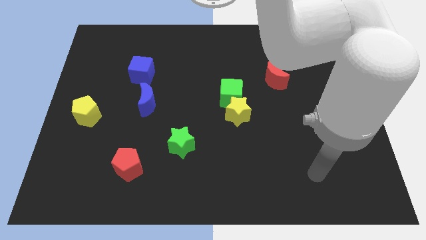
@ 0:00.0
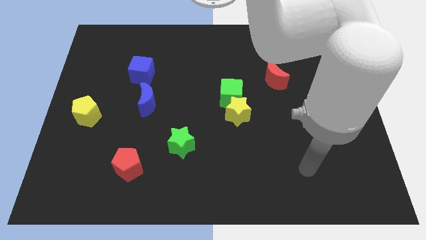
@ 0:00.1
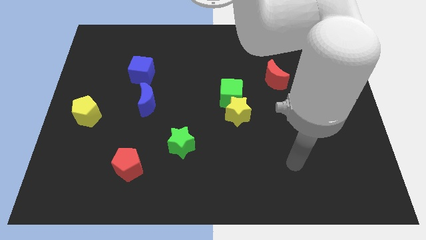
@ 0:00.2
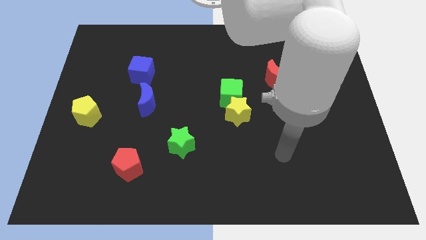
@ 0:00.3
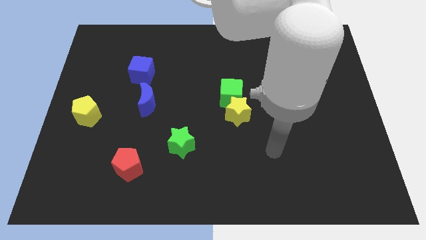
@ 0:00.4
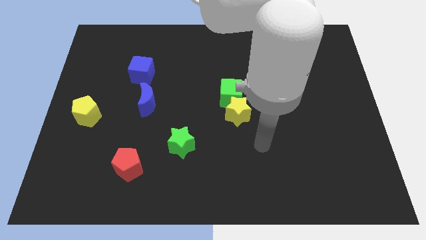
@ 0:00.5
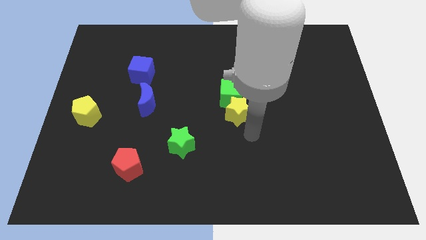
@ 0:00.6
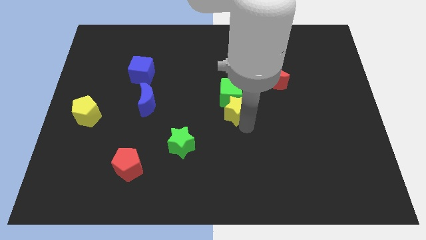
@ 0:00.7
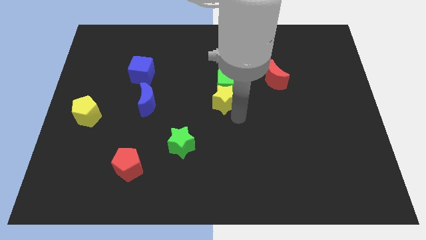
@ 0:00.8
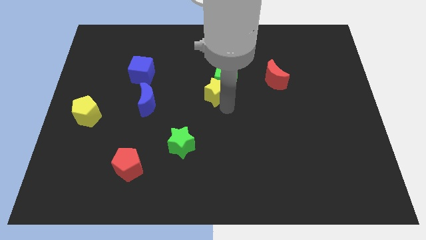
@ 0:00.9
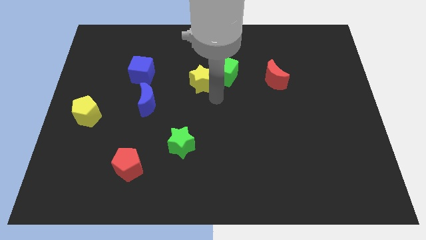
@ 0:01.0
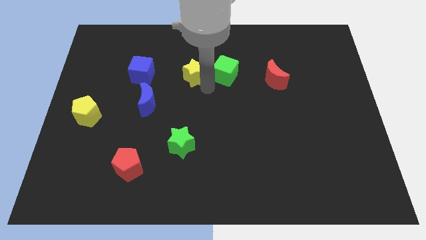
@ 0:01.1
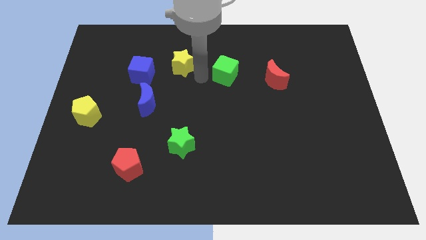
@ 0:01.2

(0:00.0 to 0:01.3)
pull the green cube apart from the yellow star

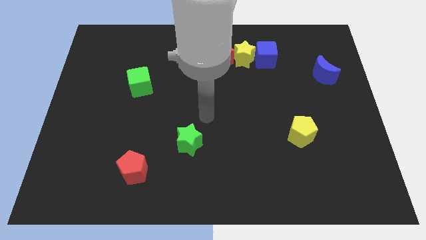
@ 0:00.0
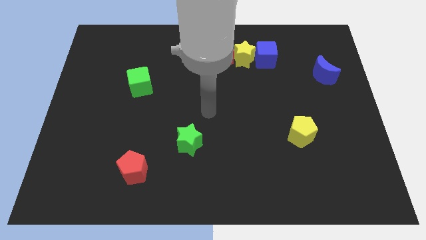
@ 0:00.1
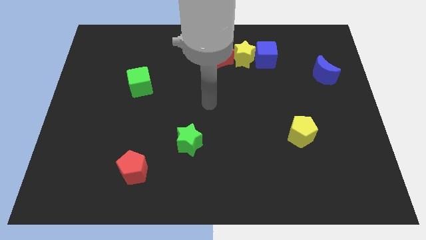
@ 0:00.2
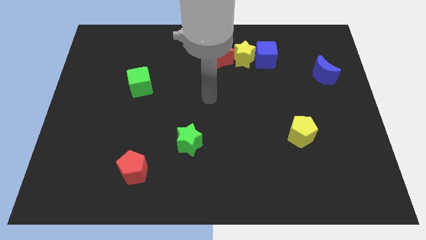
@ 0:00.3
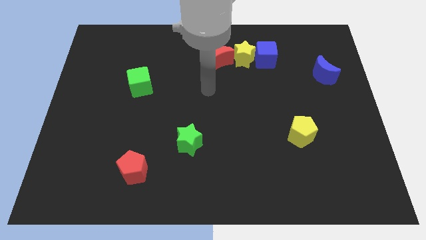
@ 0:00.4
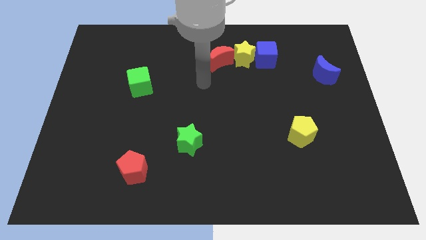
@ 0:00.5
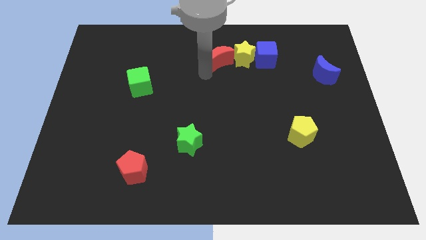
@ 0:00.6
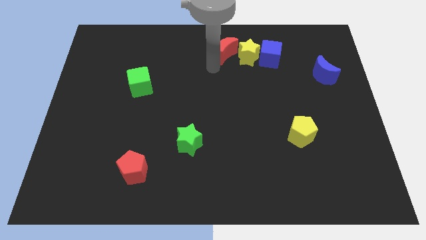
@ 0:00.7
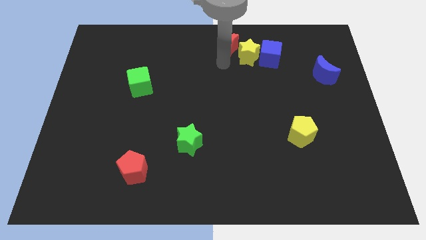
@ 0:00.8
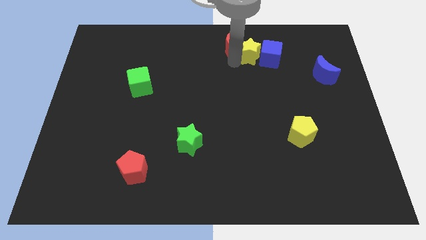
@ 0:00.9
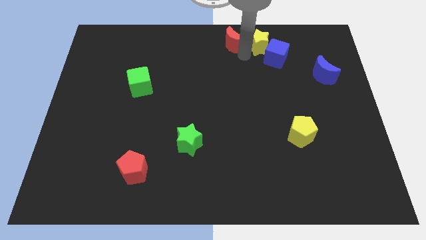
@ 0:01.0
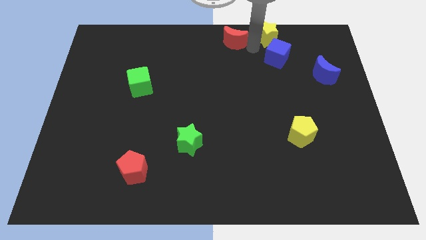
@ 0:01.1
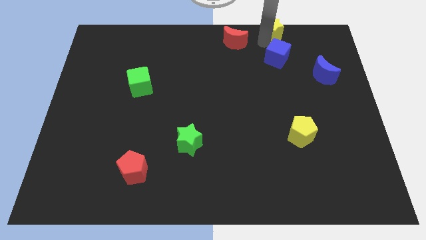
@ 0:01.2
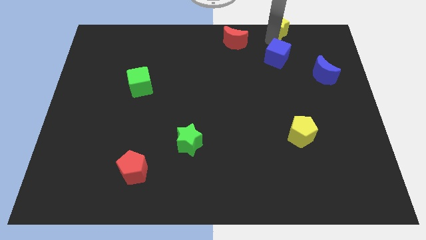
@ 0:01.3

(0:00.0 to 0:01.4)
separate the blue cube from the yellow star

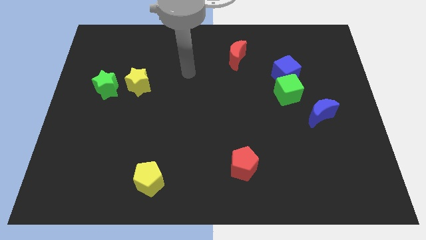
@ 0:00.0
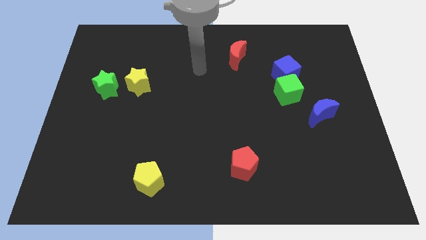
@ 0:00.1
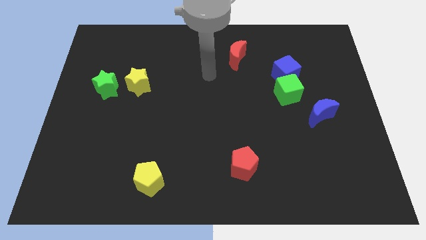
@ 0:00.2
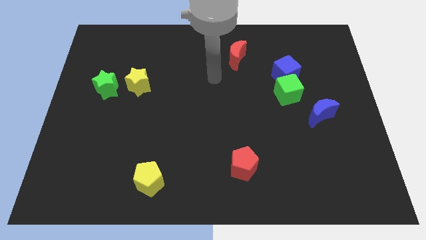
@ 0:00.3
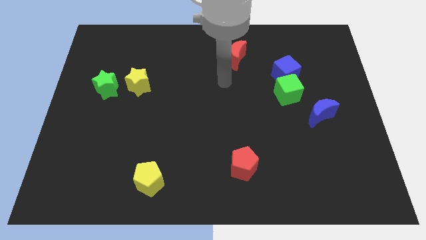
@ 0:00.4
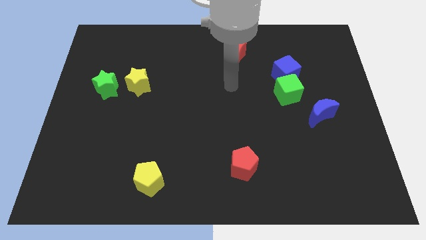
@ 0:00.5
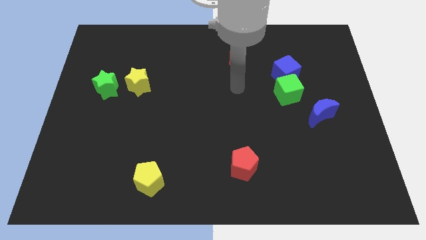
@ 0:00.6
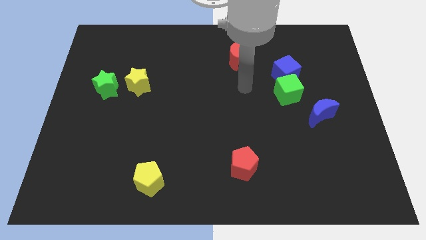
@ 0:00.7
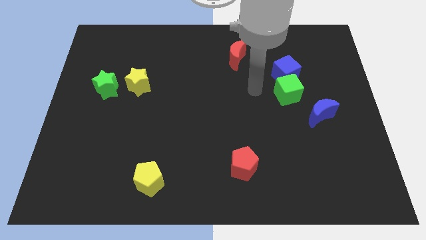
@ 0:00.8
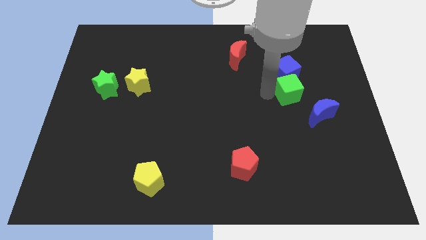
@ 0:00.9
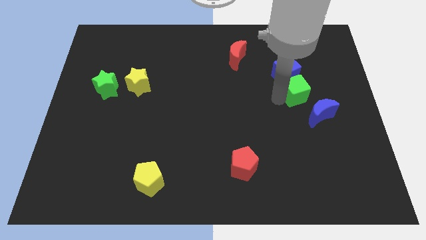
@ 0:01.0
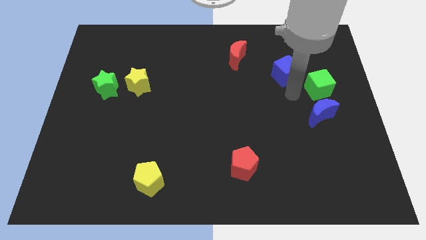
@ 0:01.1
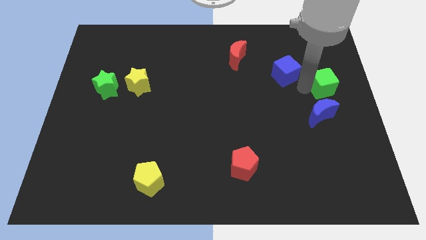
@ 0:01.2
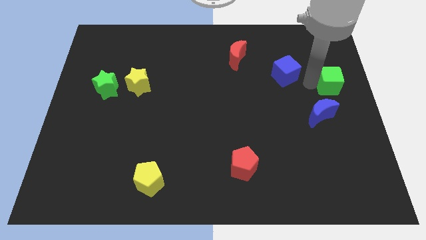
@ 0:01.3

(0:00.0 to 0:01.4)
pull the blue cube apart from the green cube

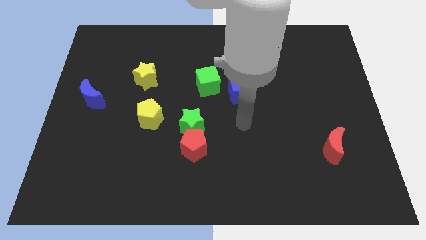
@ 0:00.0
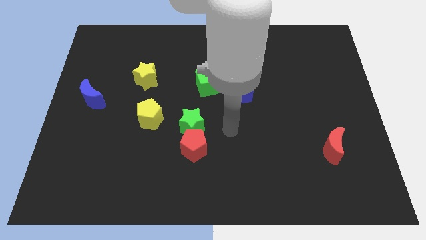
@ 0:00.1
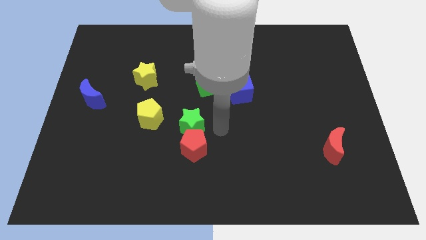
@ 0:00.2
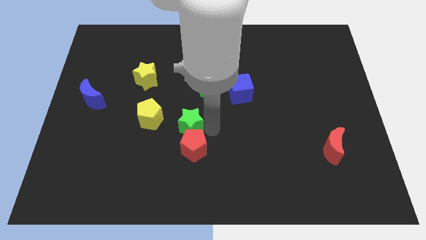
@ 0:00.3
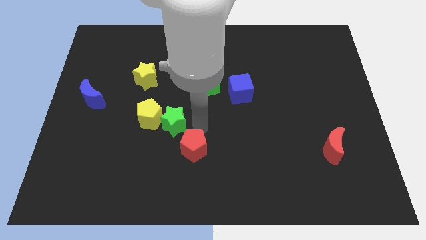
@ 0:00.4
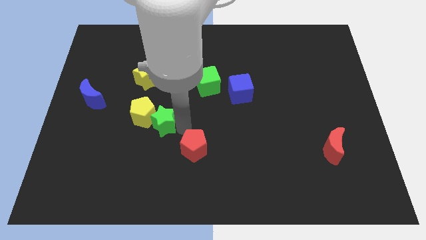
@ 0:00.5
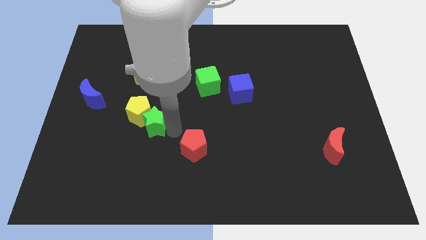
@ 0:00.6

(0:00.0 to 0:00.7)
separate the red pentagon from the green star

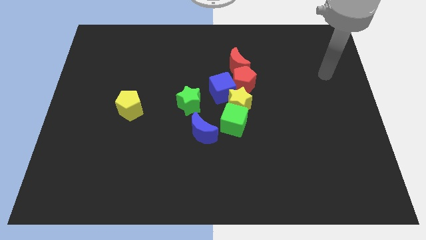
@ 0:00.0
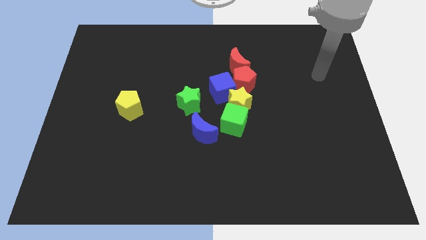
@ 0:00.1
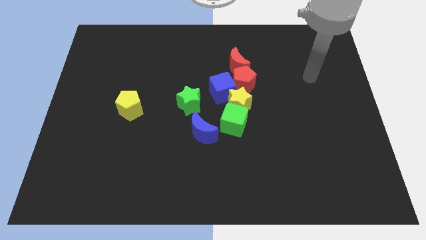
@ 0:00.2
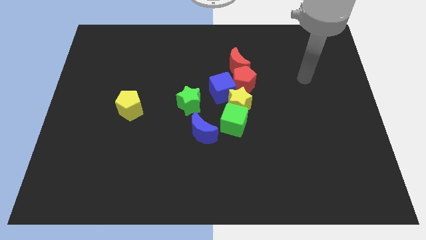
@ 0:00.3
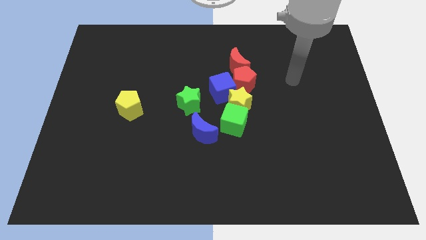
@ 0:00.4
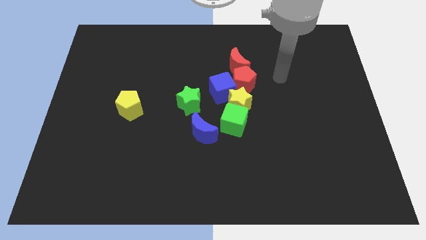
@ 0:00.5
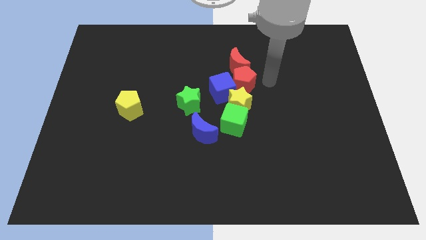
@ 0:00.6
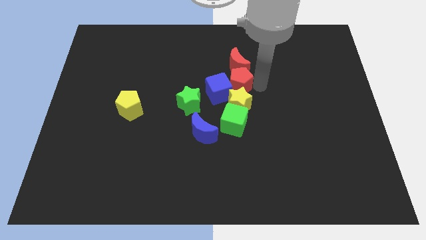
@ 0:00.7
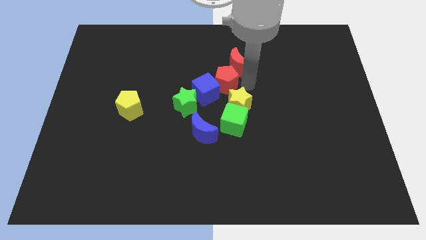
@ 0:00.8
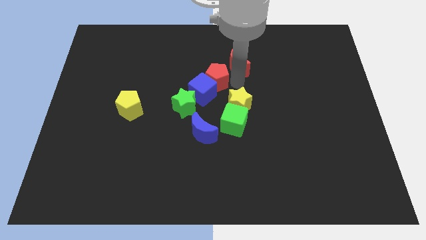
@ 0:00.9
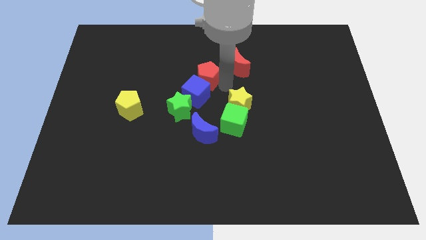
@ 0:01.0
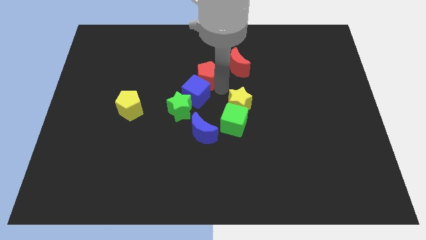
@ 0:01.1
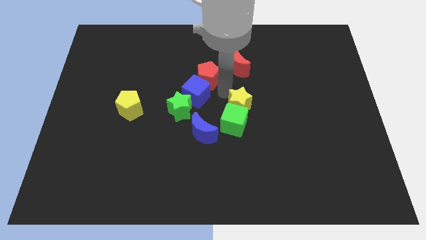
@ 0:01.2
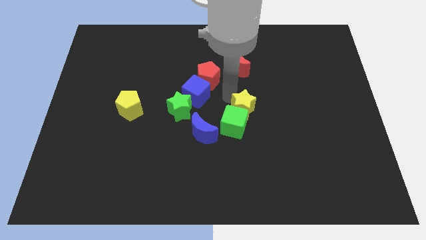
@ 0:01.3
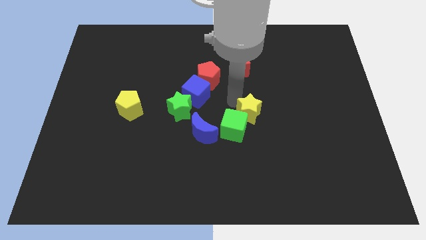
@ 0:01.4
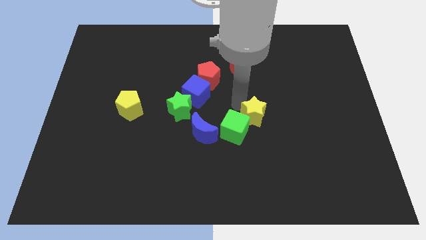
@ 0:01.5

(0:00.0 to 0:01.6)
separate the yellow star from the green cube, blue cube, and red pentagon

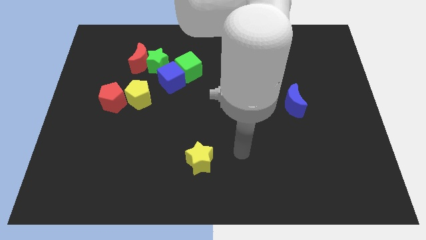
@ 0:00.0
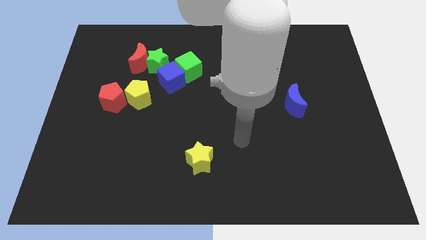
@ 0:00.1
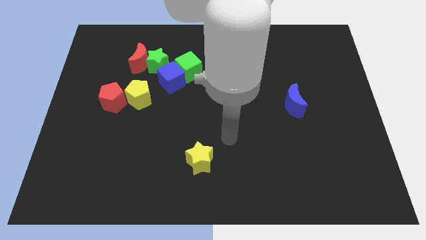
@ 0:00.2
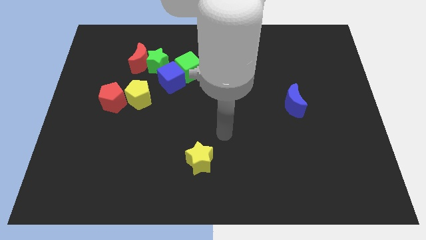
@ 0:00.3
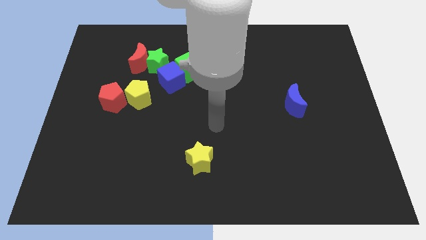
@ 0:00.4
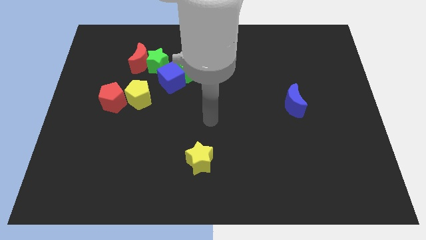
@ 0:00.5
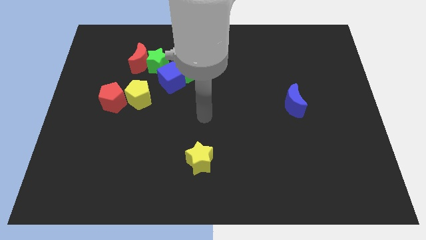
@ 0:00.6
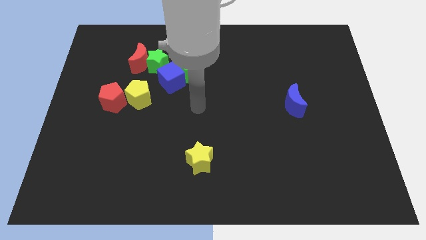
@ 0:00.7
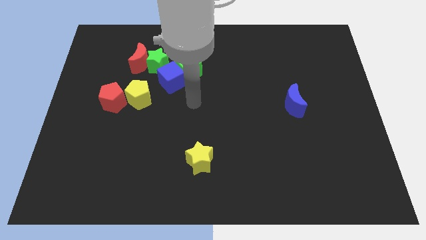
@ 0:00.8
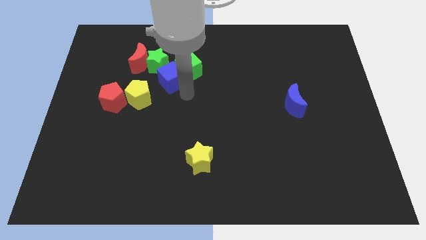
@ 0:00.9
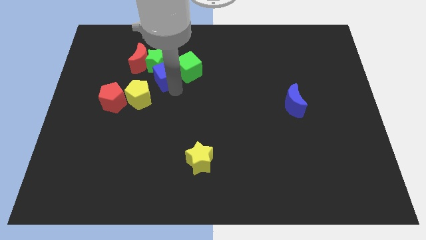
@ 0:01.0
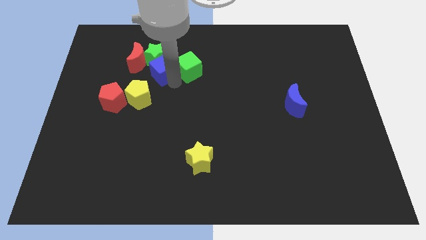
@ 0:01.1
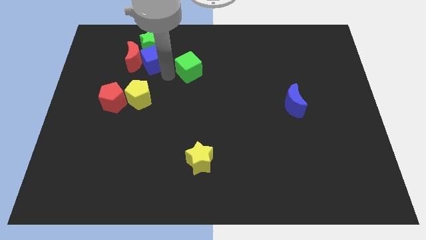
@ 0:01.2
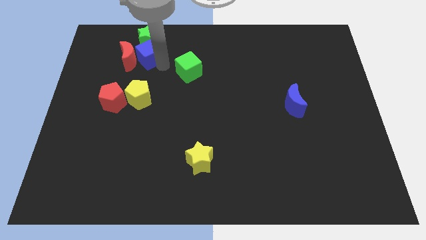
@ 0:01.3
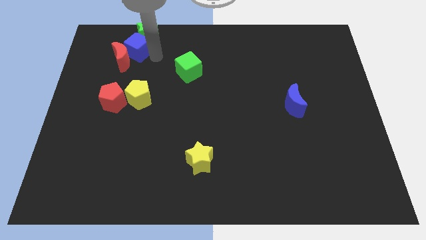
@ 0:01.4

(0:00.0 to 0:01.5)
move the red moon away from the green star

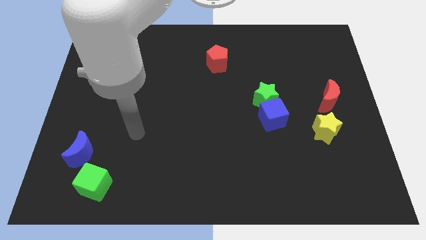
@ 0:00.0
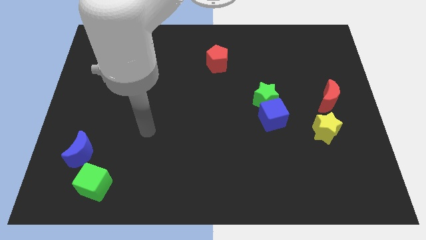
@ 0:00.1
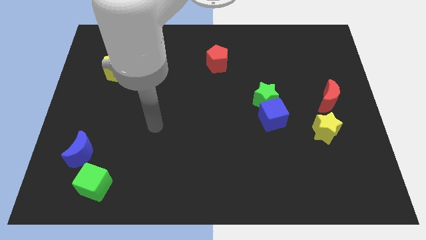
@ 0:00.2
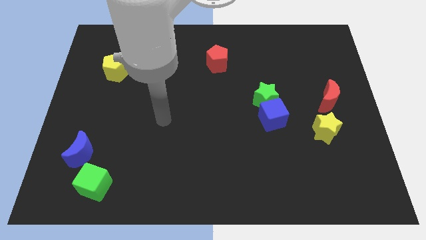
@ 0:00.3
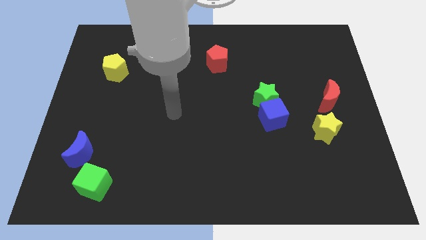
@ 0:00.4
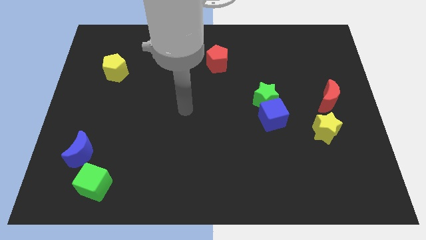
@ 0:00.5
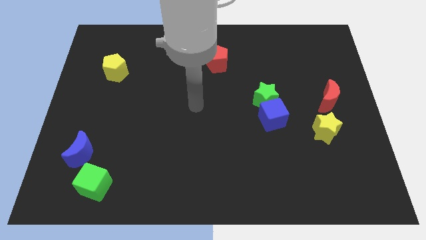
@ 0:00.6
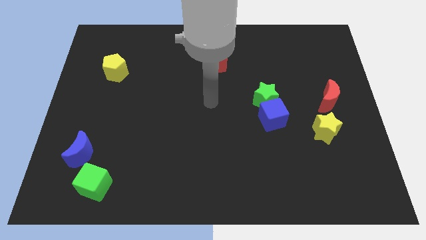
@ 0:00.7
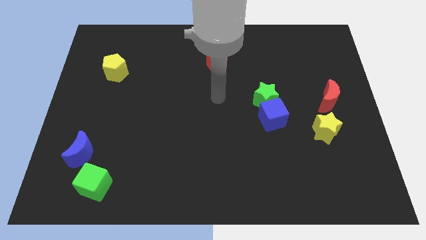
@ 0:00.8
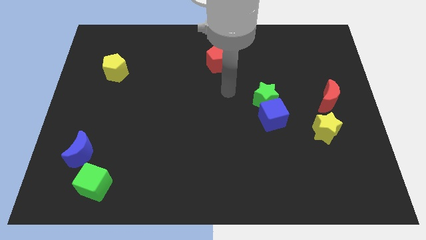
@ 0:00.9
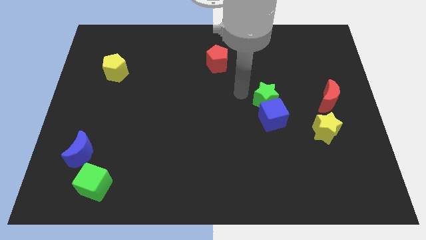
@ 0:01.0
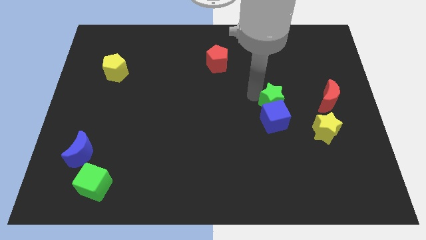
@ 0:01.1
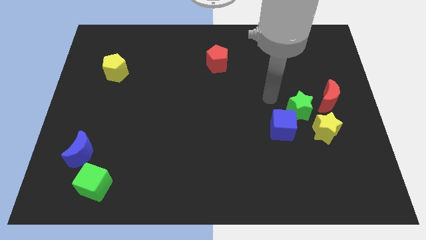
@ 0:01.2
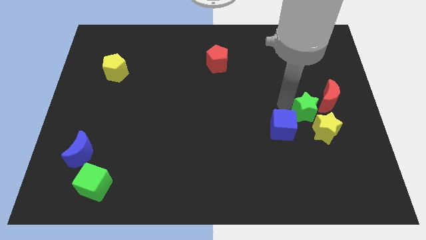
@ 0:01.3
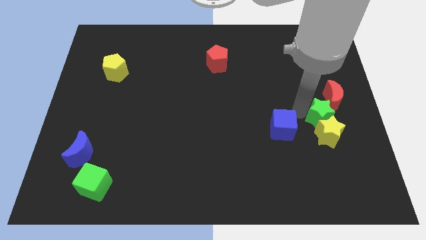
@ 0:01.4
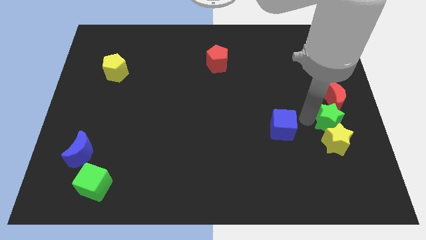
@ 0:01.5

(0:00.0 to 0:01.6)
separate the blue cube from the green star
